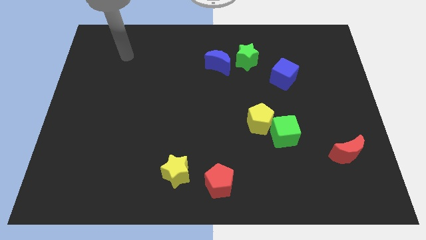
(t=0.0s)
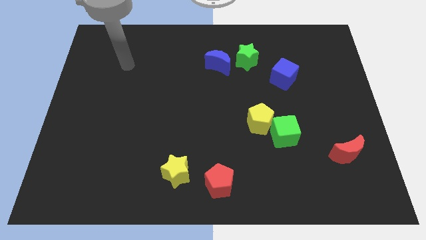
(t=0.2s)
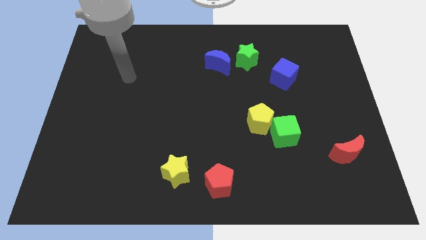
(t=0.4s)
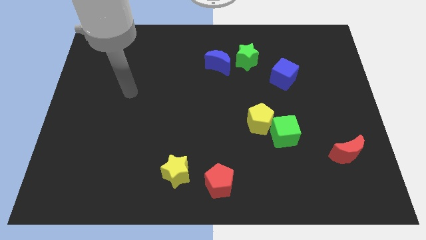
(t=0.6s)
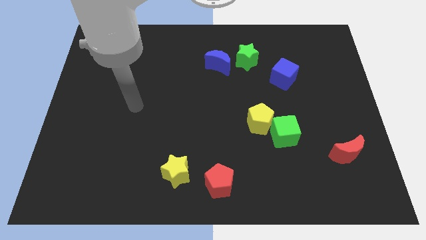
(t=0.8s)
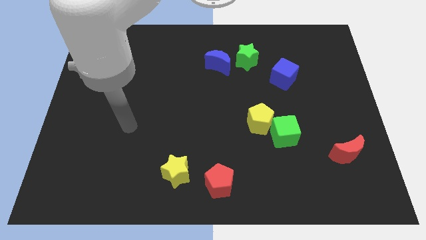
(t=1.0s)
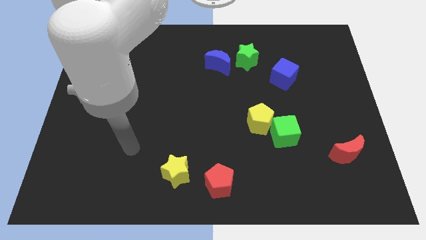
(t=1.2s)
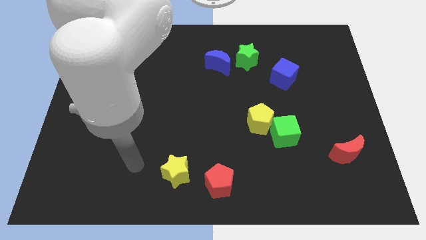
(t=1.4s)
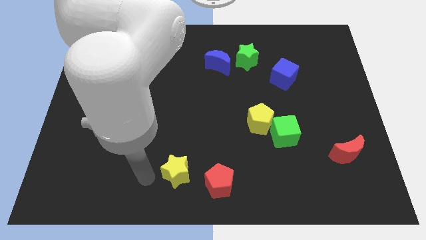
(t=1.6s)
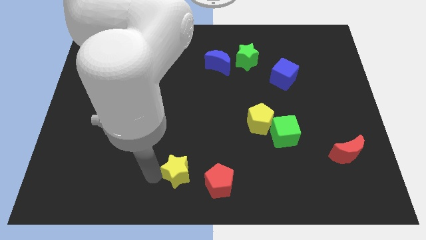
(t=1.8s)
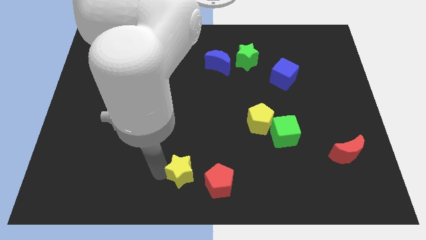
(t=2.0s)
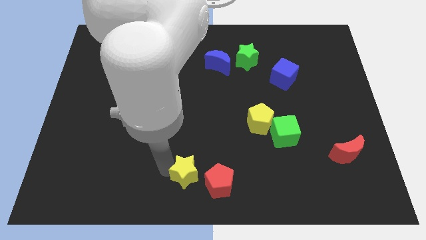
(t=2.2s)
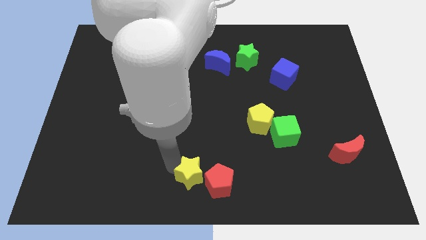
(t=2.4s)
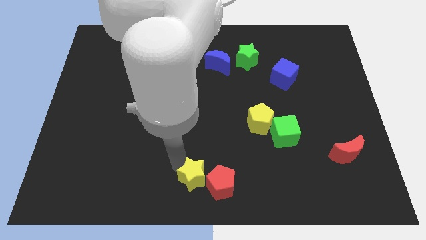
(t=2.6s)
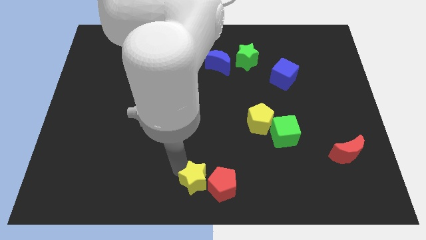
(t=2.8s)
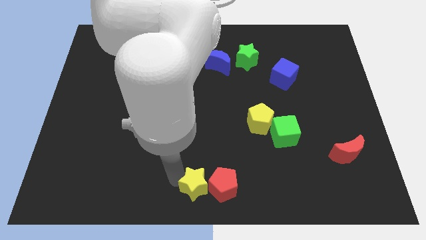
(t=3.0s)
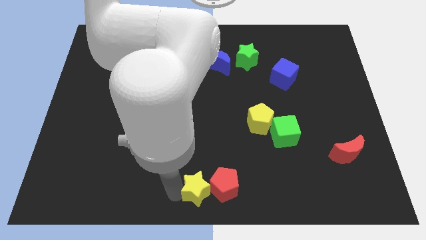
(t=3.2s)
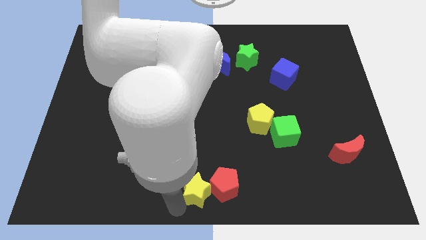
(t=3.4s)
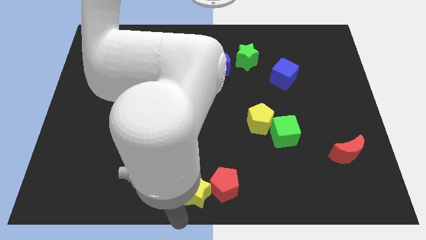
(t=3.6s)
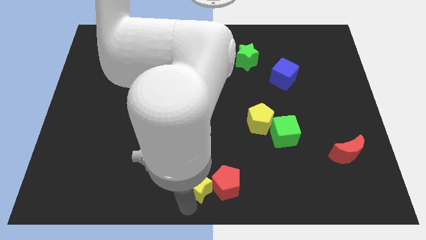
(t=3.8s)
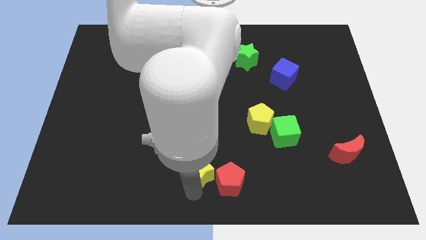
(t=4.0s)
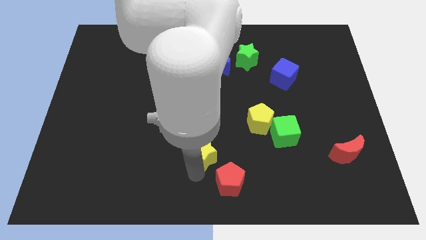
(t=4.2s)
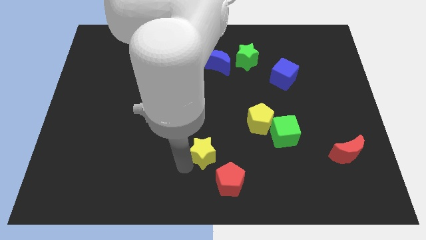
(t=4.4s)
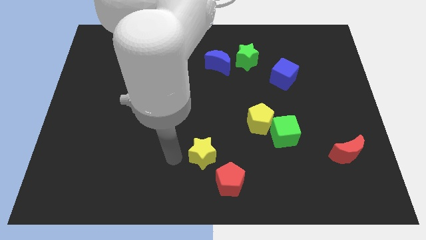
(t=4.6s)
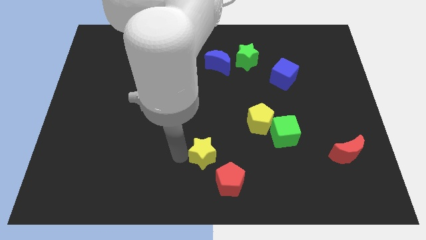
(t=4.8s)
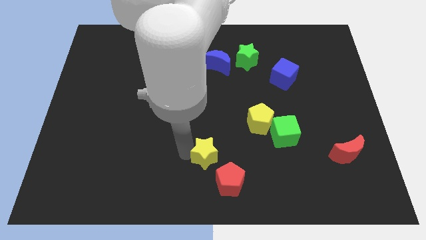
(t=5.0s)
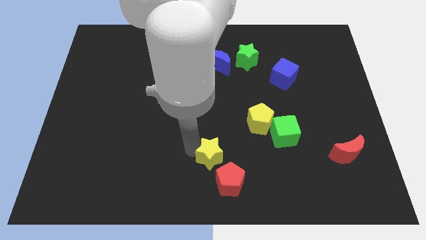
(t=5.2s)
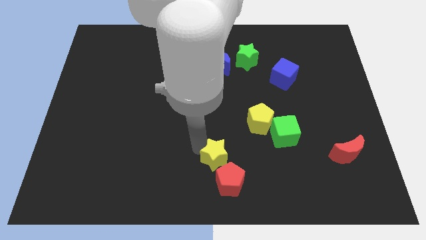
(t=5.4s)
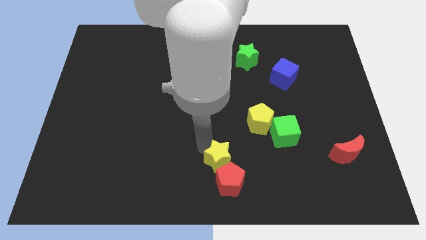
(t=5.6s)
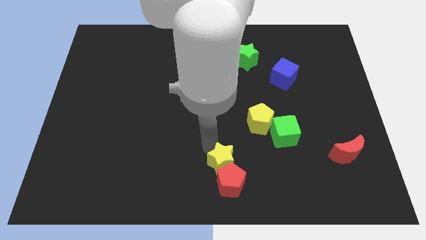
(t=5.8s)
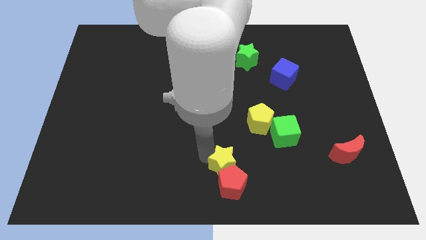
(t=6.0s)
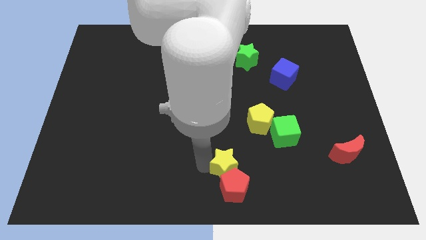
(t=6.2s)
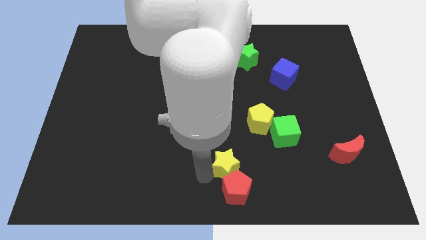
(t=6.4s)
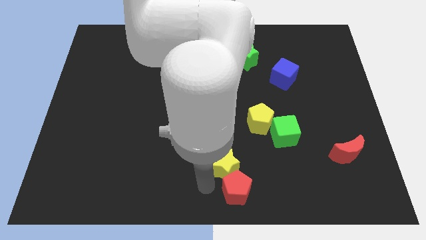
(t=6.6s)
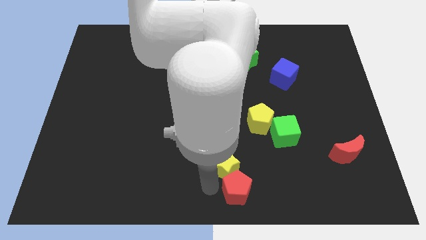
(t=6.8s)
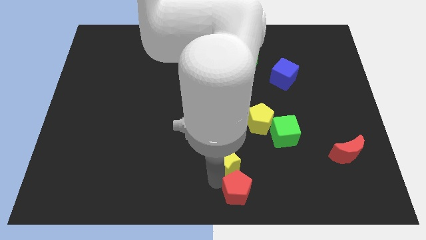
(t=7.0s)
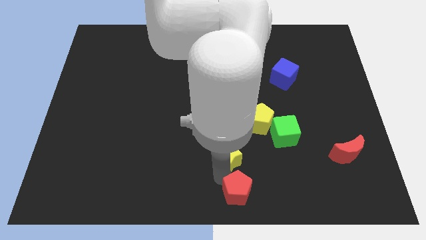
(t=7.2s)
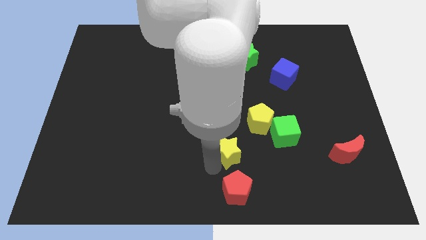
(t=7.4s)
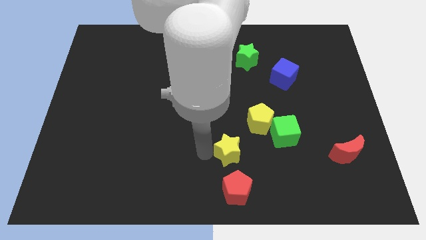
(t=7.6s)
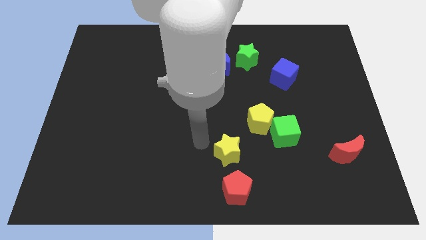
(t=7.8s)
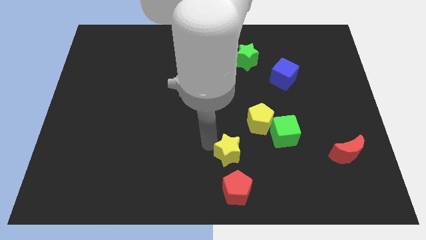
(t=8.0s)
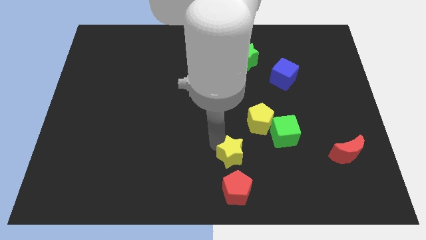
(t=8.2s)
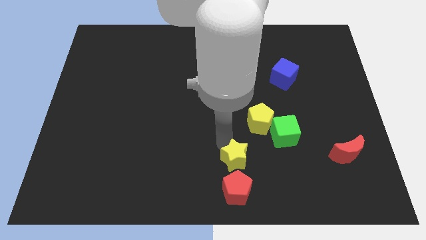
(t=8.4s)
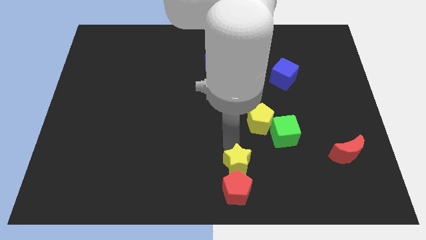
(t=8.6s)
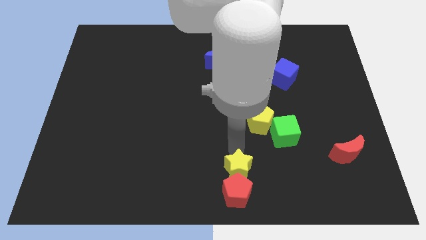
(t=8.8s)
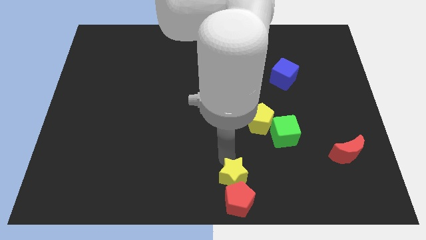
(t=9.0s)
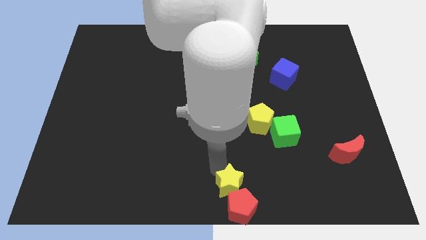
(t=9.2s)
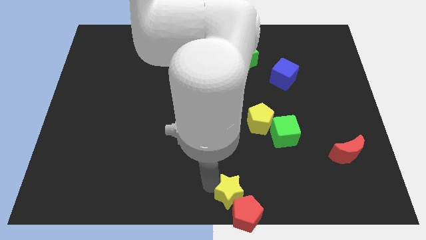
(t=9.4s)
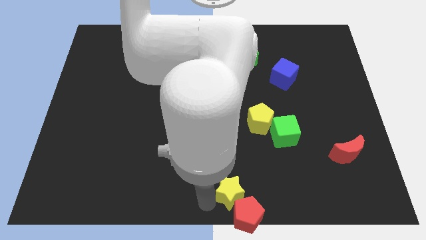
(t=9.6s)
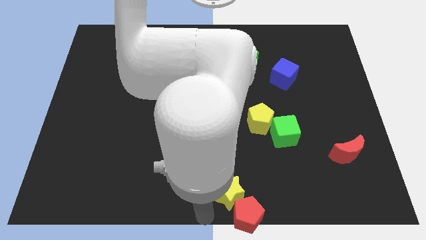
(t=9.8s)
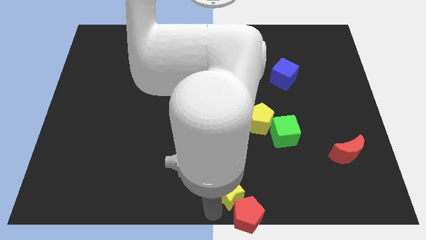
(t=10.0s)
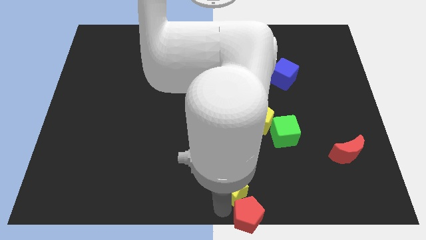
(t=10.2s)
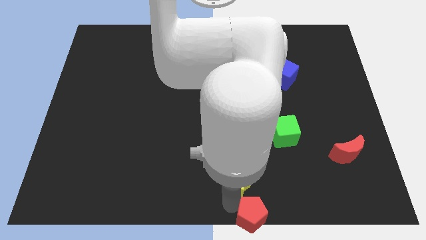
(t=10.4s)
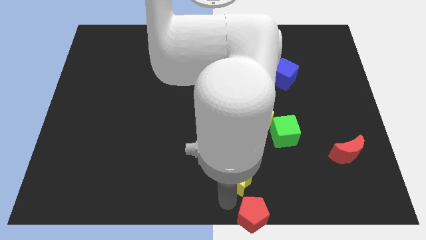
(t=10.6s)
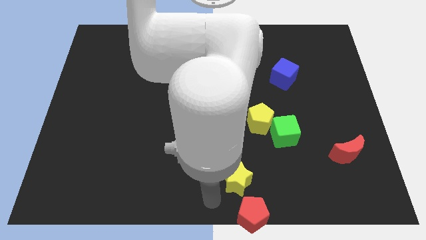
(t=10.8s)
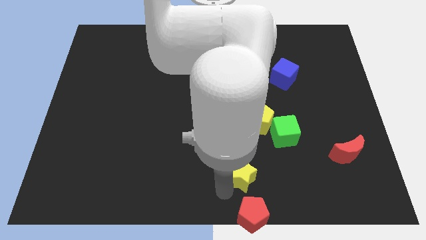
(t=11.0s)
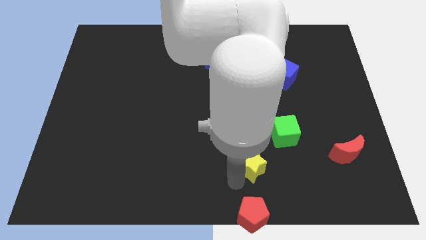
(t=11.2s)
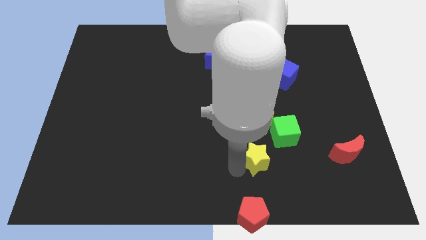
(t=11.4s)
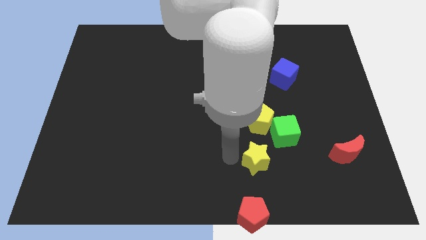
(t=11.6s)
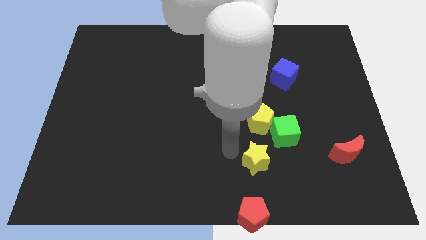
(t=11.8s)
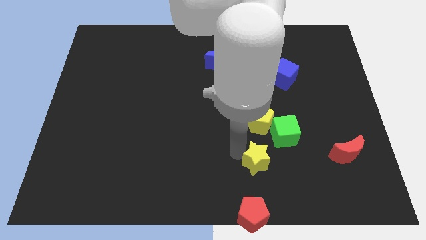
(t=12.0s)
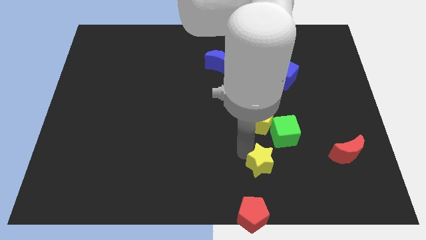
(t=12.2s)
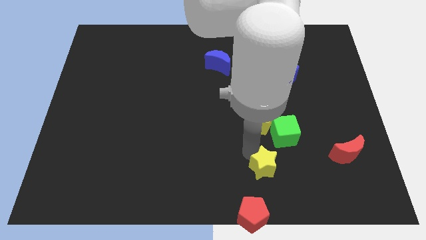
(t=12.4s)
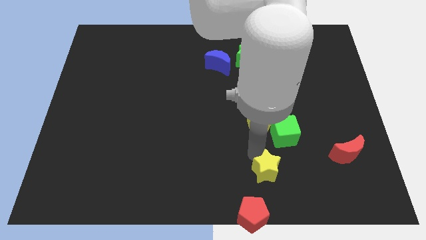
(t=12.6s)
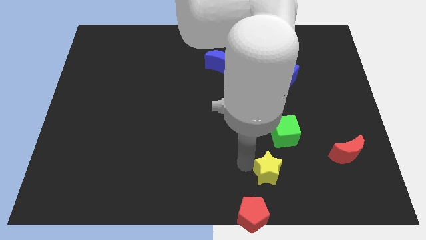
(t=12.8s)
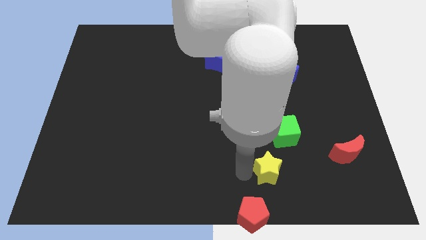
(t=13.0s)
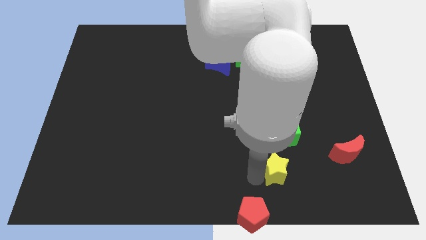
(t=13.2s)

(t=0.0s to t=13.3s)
move the yellow star right

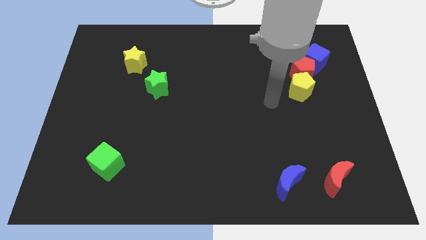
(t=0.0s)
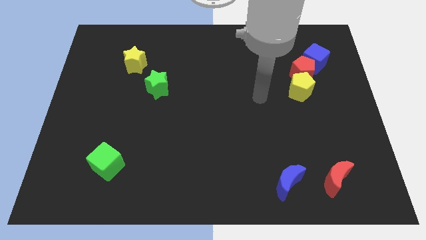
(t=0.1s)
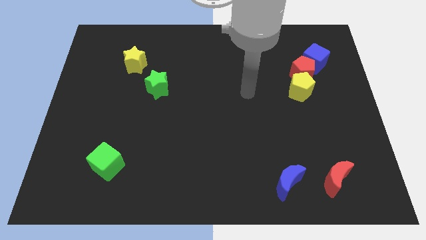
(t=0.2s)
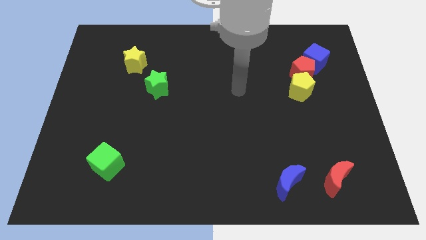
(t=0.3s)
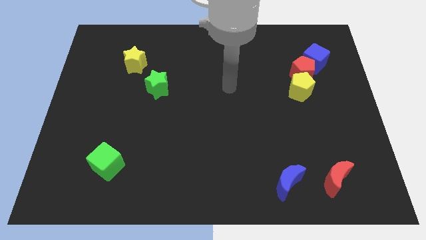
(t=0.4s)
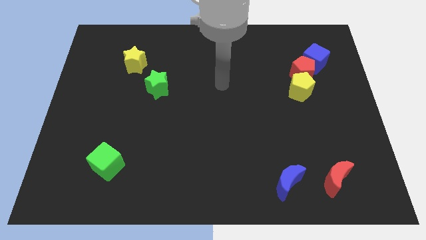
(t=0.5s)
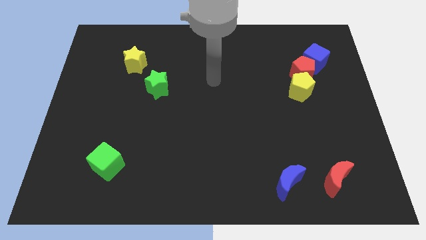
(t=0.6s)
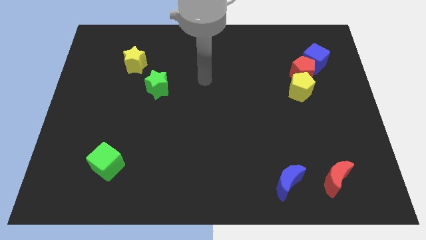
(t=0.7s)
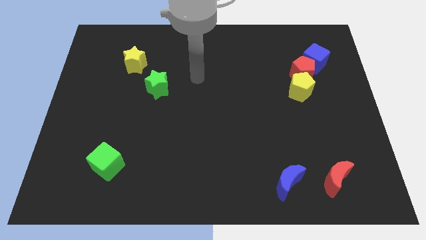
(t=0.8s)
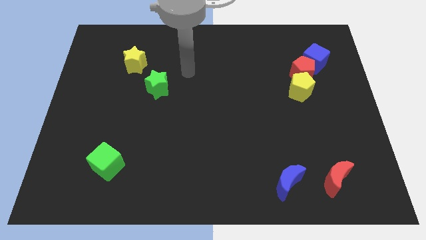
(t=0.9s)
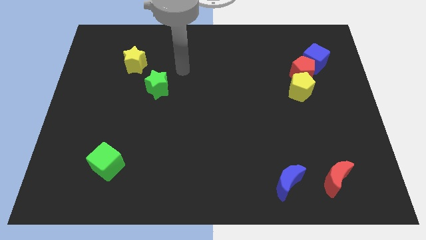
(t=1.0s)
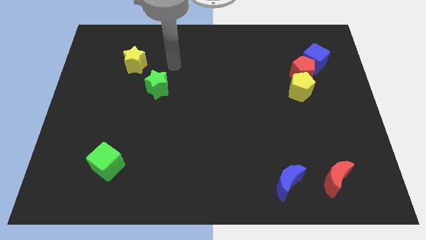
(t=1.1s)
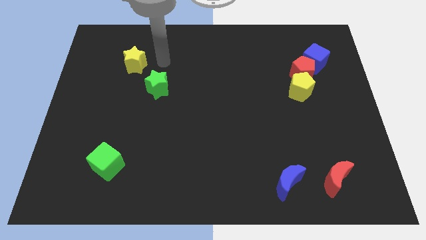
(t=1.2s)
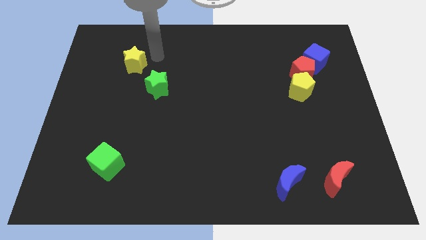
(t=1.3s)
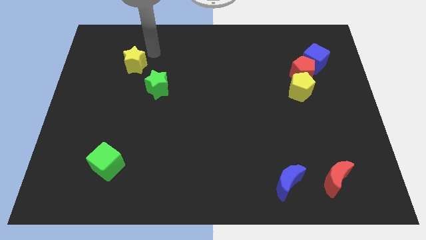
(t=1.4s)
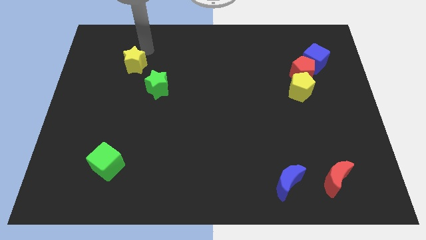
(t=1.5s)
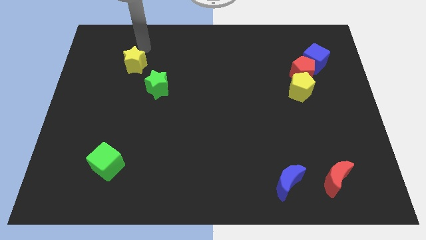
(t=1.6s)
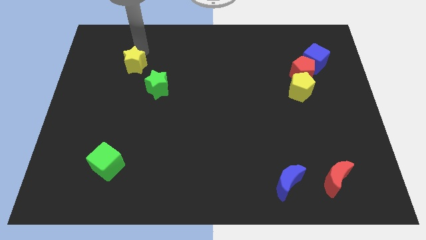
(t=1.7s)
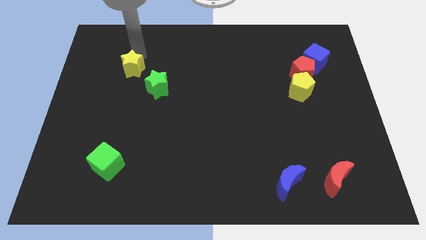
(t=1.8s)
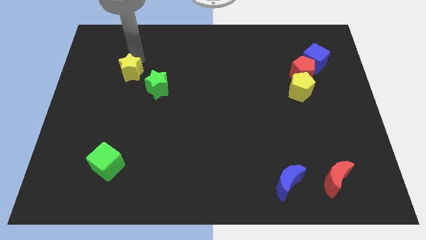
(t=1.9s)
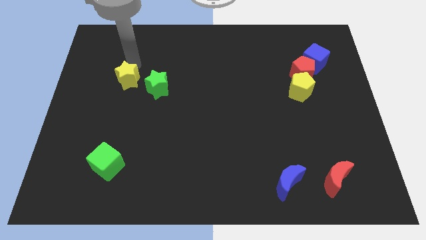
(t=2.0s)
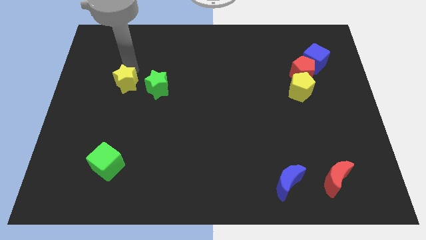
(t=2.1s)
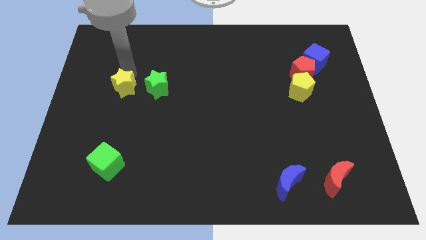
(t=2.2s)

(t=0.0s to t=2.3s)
move the yellow star downwards a little bit
